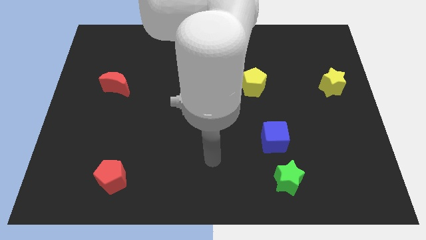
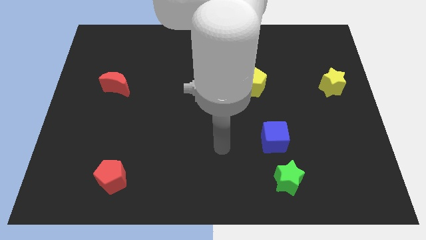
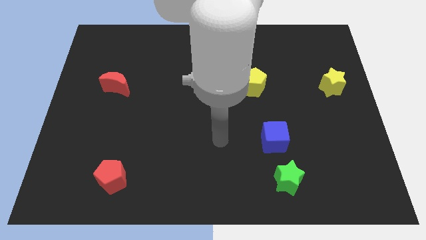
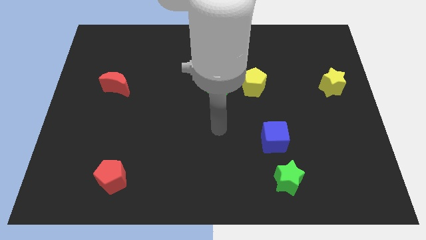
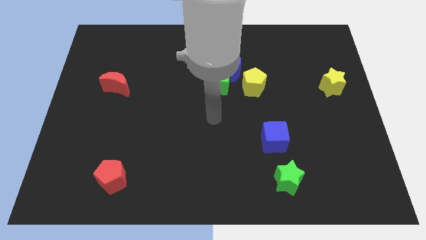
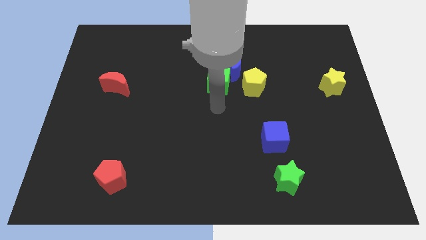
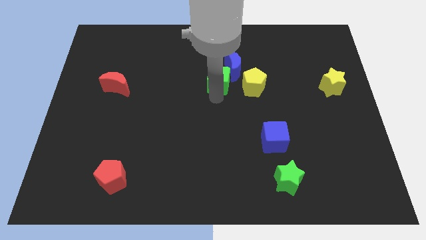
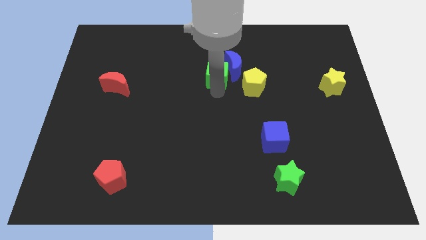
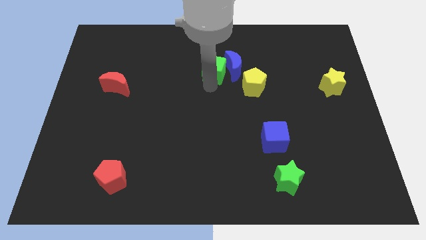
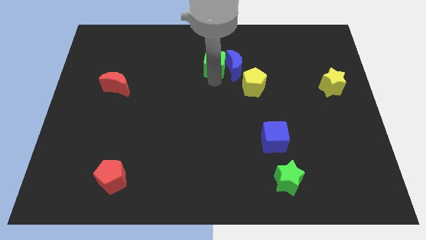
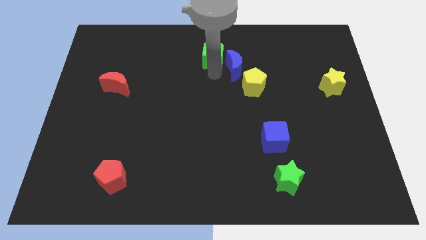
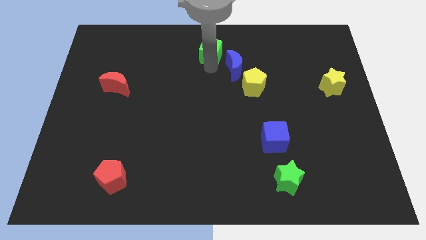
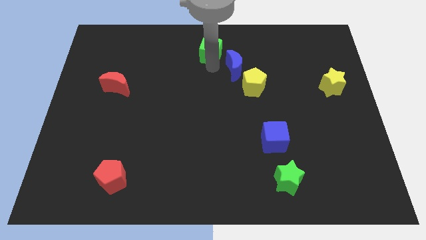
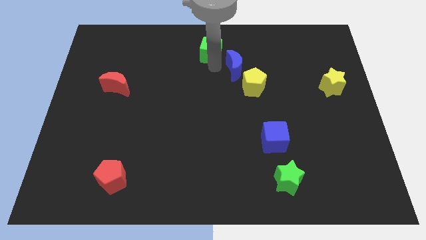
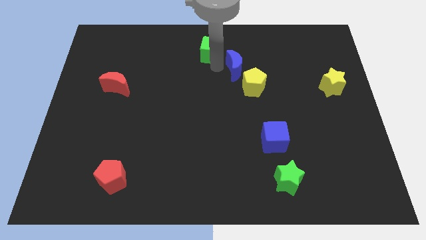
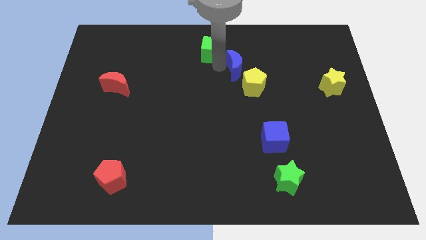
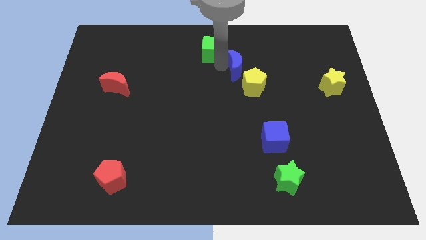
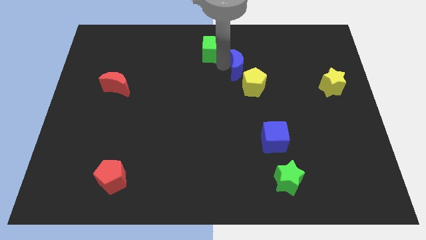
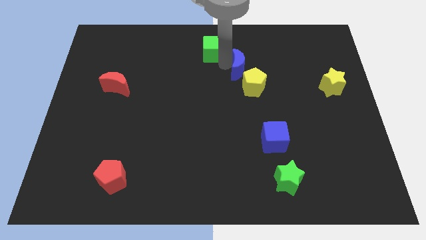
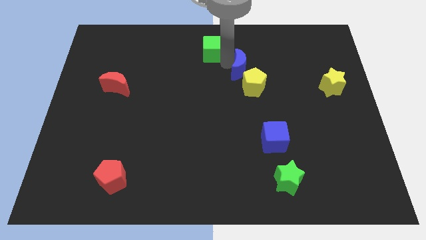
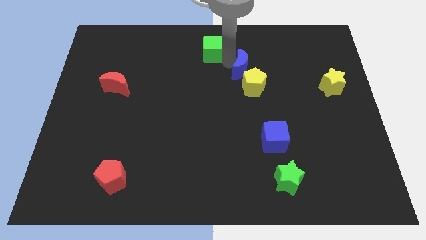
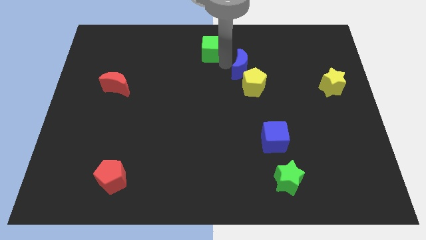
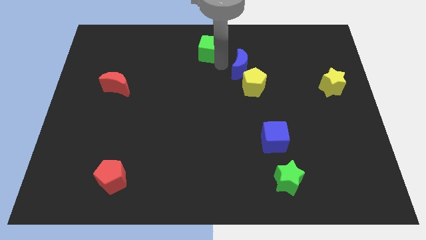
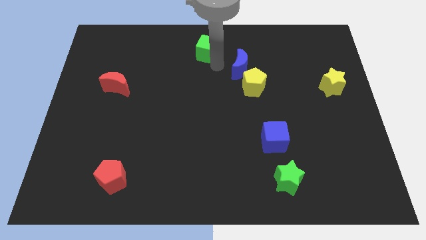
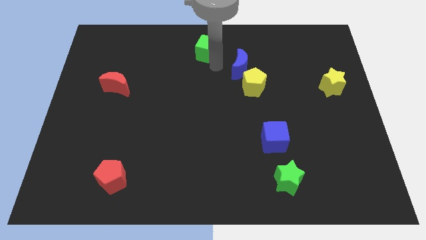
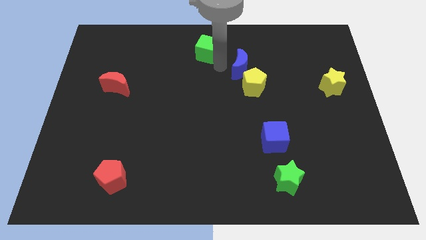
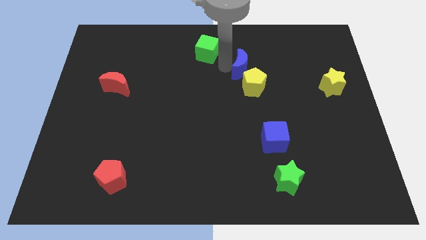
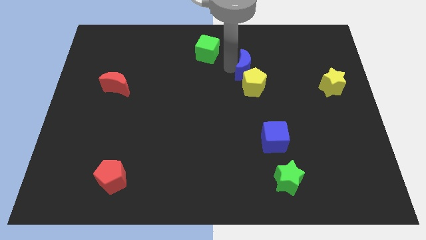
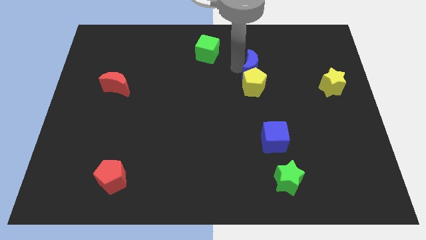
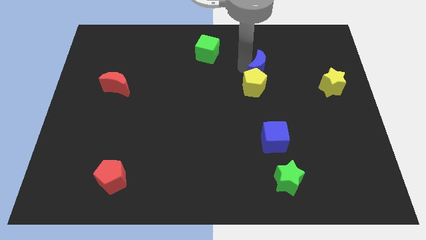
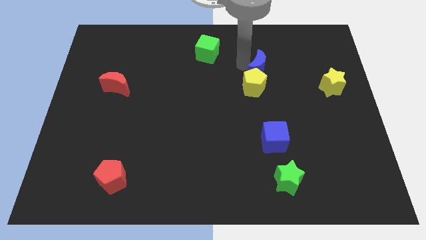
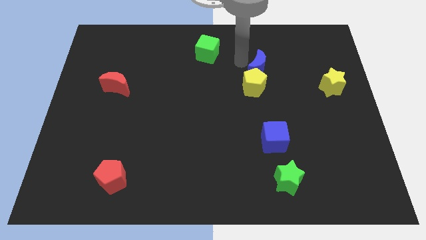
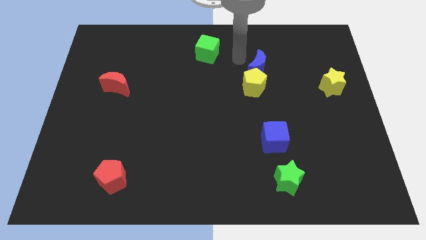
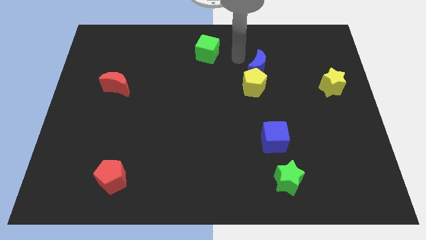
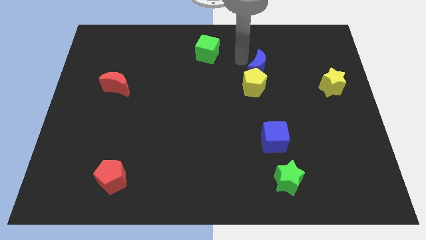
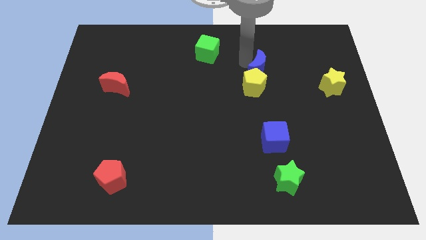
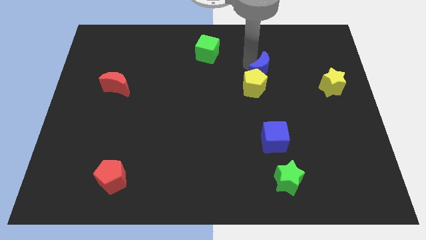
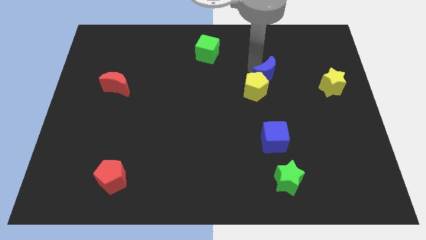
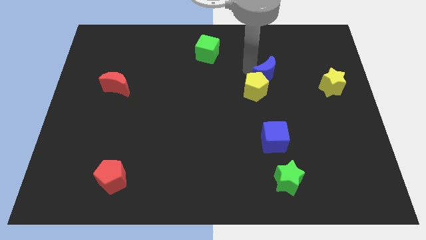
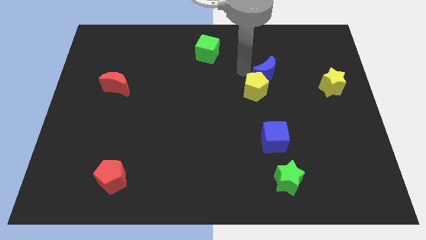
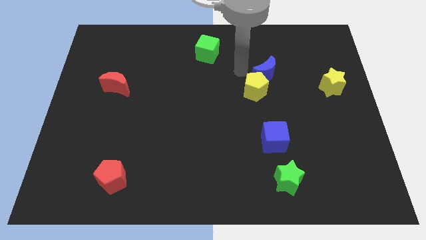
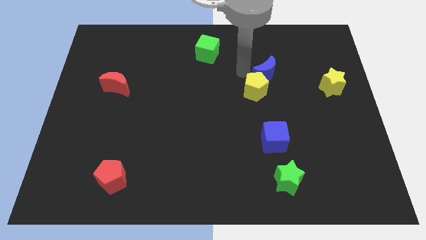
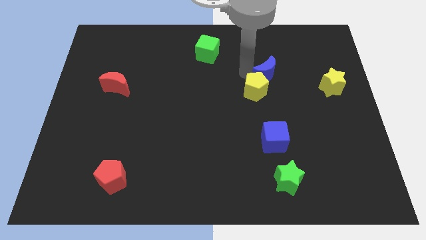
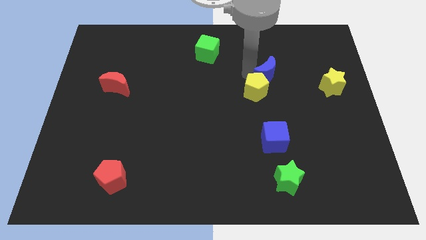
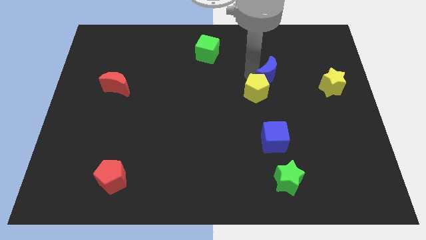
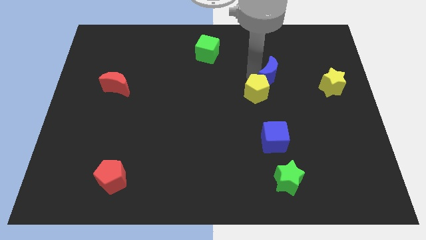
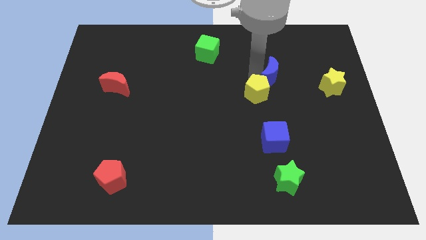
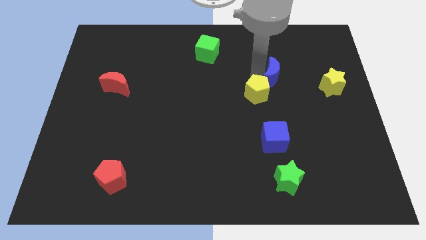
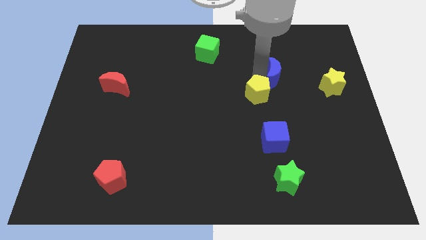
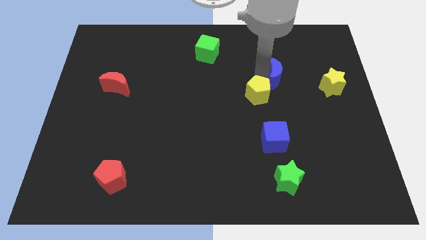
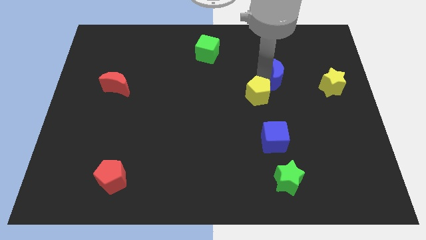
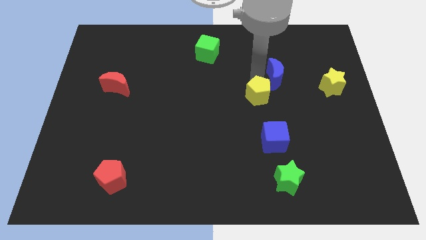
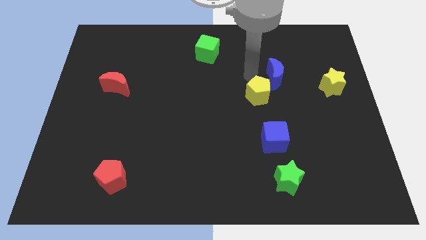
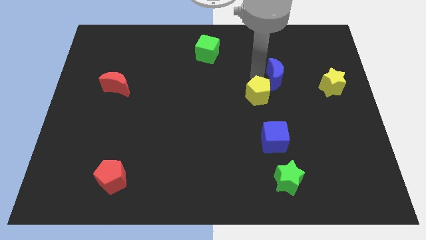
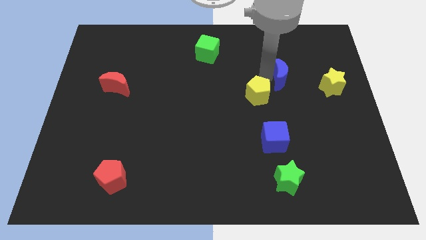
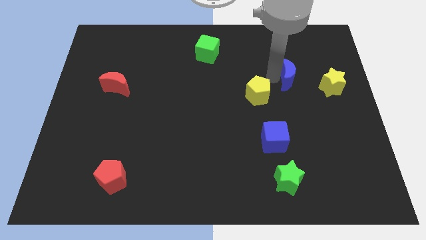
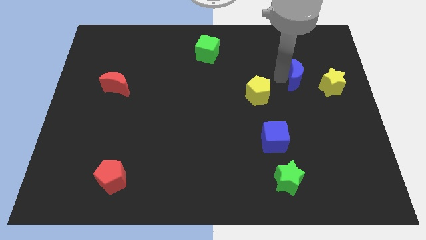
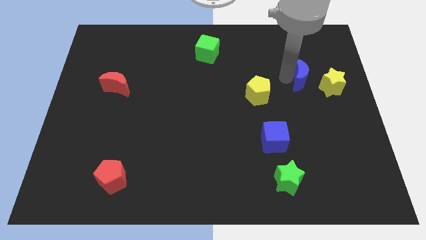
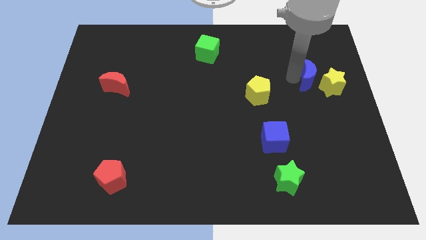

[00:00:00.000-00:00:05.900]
slide the blue moon towards the yellow star

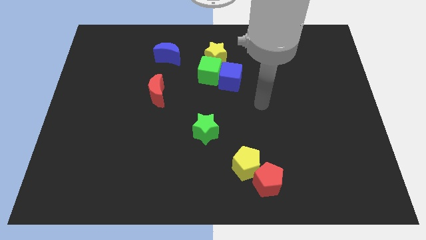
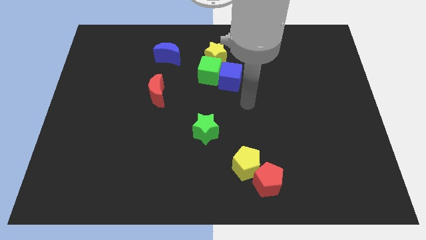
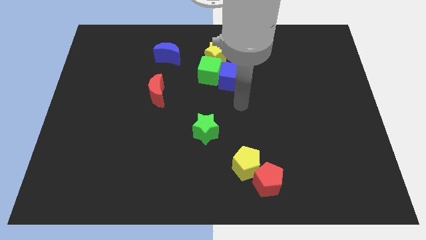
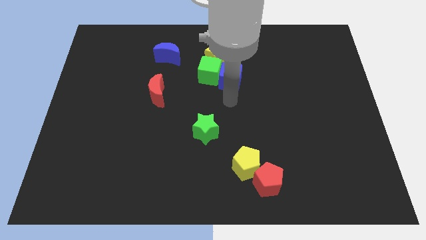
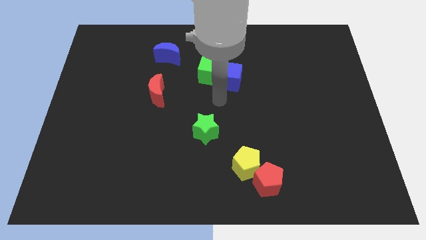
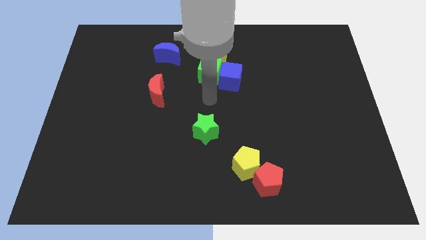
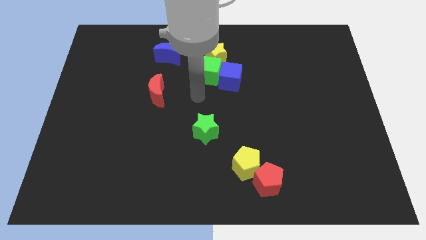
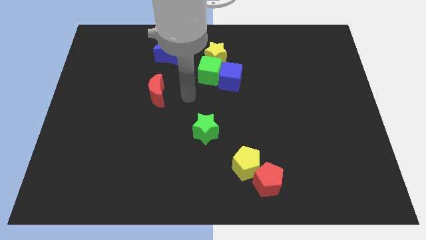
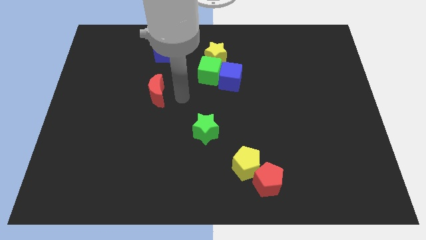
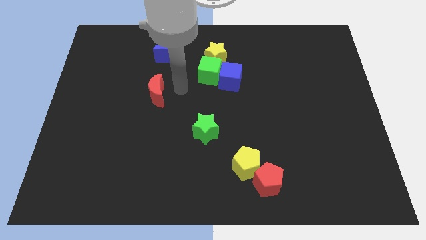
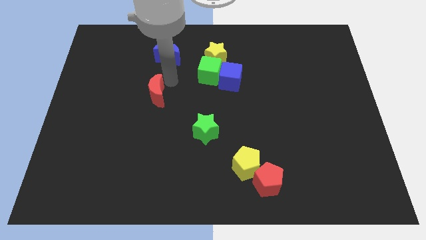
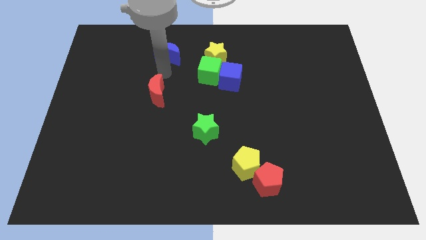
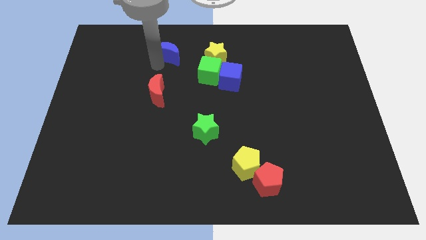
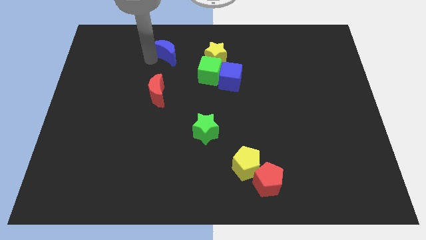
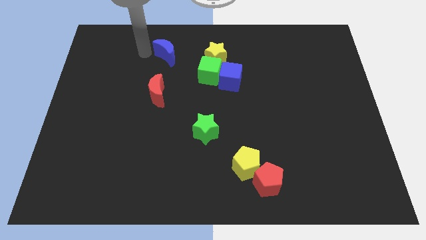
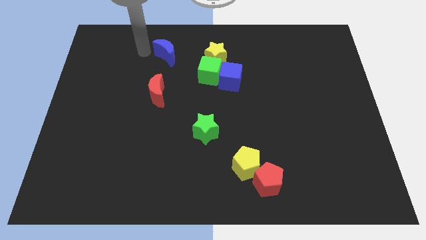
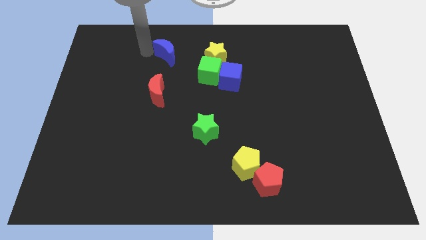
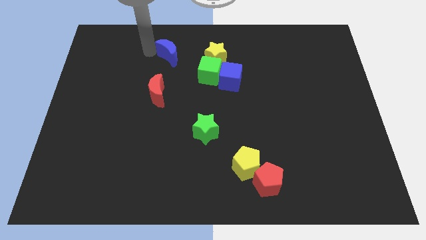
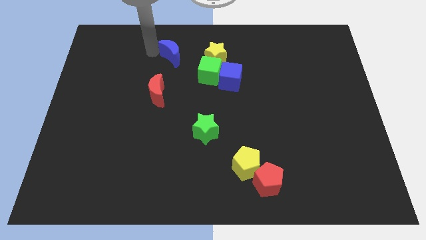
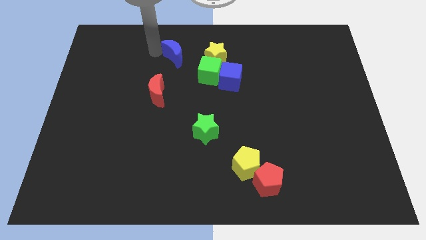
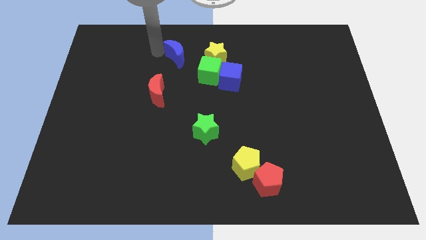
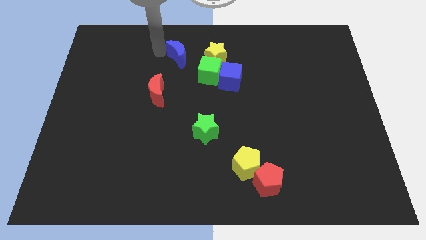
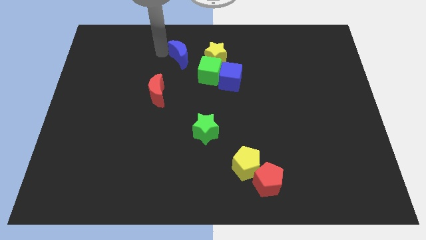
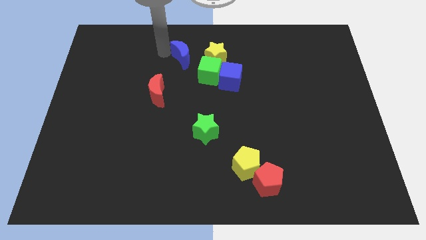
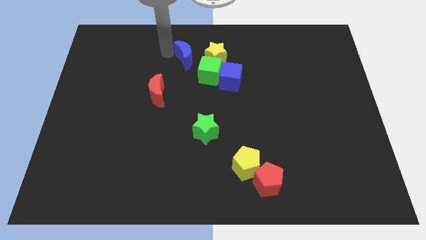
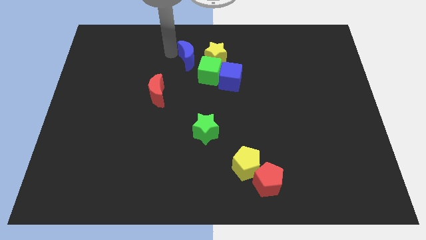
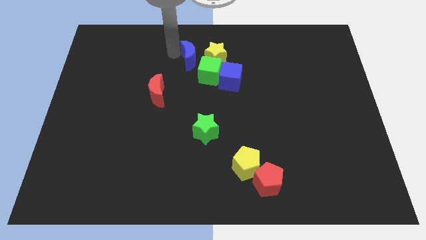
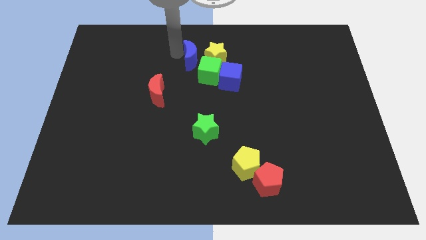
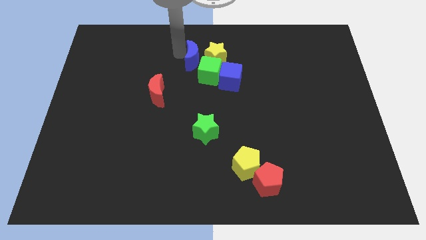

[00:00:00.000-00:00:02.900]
push the blue moon towards the yellow star
